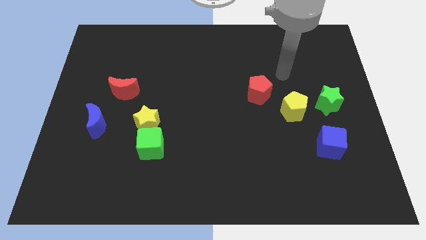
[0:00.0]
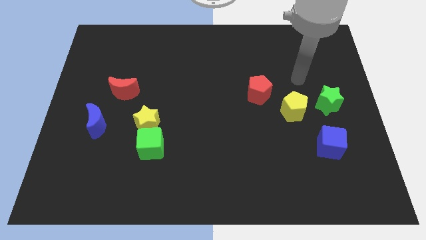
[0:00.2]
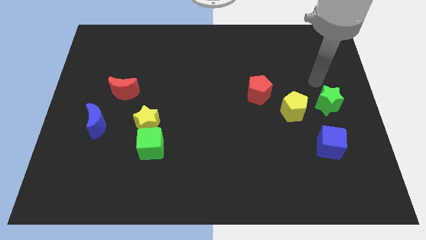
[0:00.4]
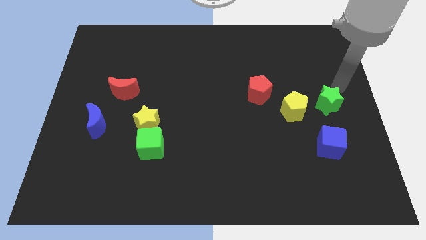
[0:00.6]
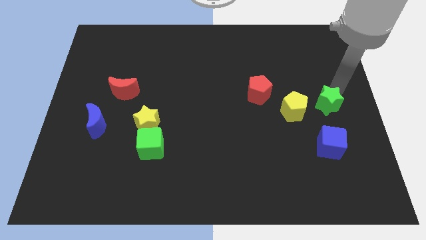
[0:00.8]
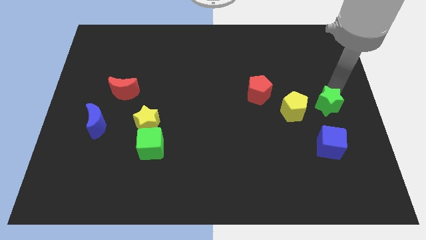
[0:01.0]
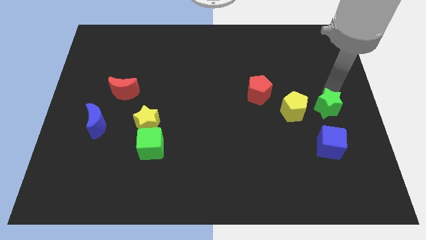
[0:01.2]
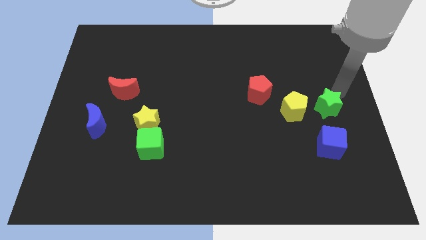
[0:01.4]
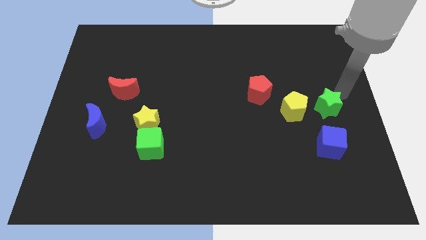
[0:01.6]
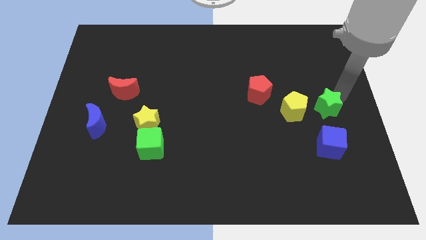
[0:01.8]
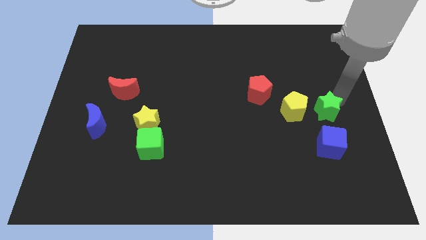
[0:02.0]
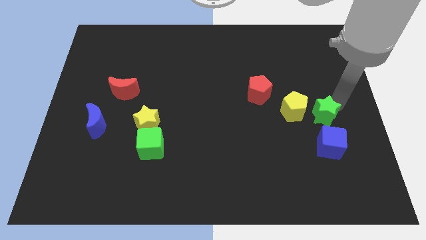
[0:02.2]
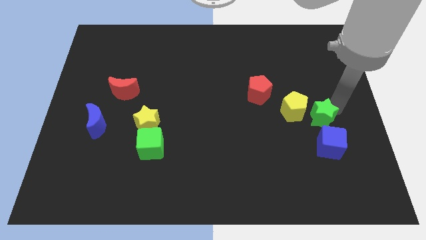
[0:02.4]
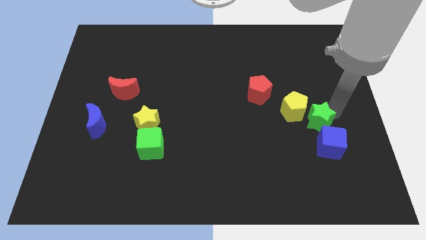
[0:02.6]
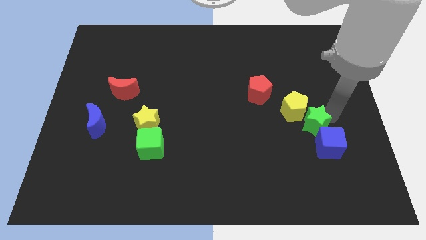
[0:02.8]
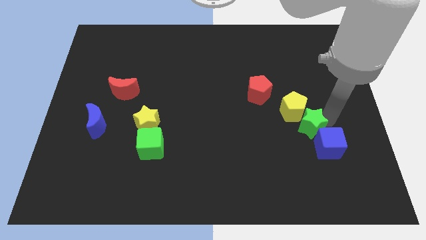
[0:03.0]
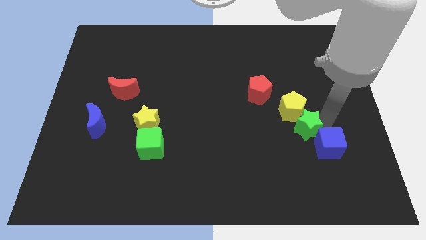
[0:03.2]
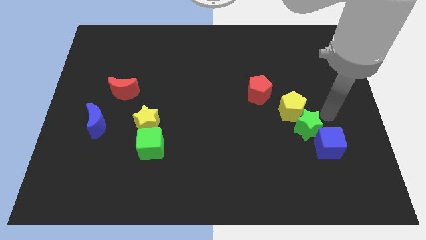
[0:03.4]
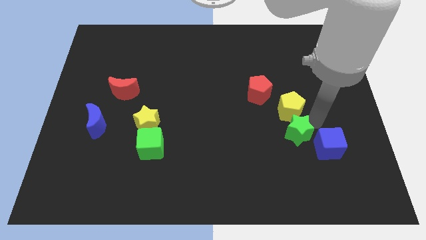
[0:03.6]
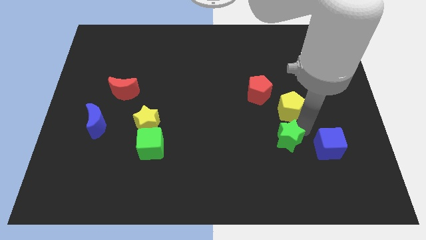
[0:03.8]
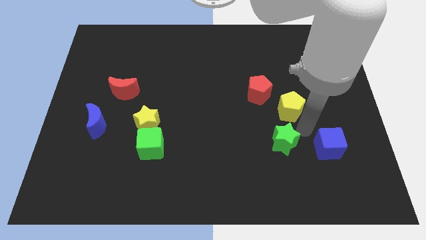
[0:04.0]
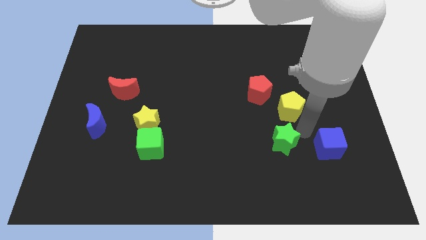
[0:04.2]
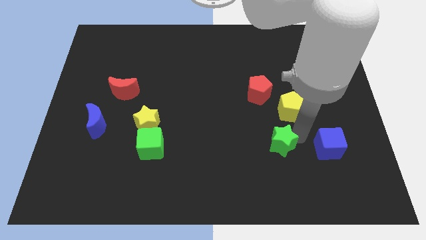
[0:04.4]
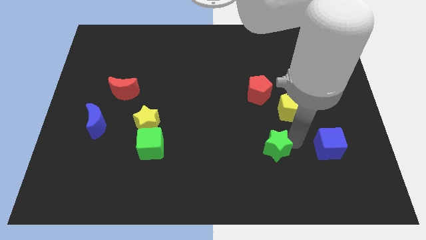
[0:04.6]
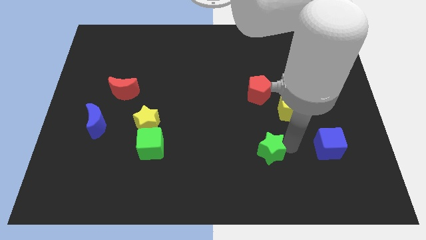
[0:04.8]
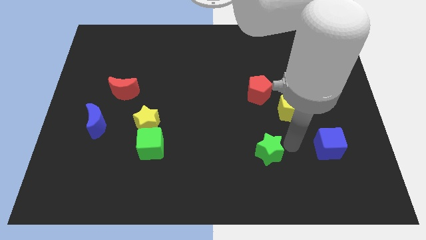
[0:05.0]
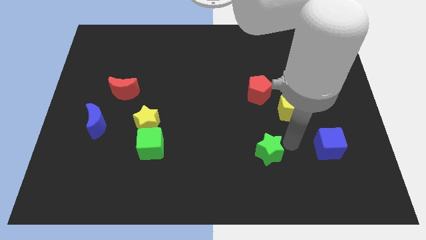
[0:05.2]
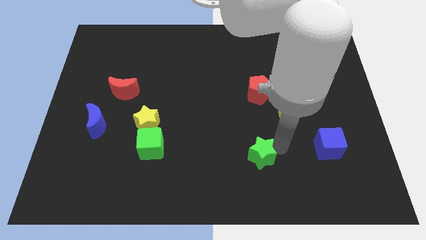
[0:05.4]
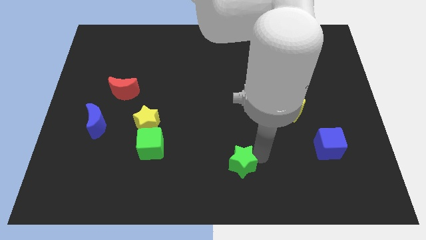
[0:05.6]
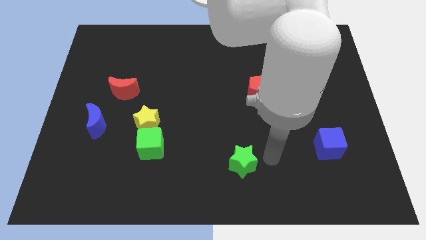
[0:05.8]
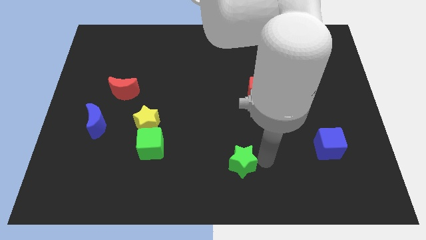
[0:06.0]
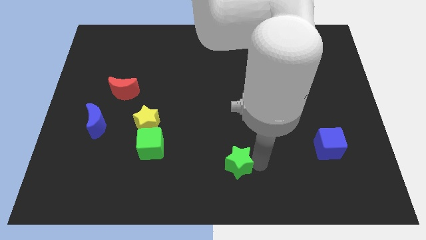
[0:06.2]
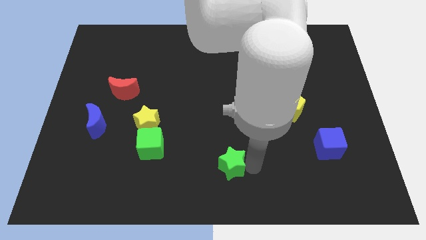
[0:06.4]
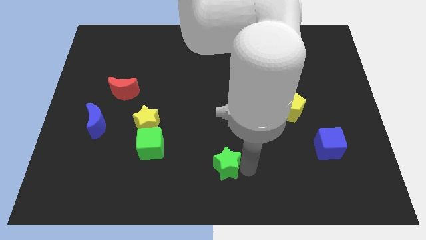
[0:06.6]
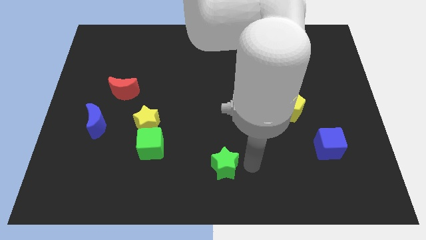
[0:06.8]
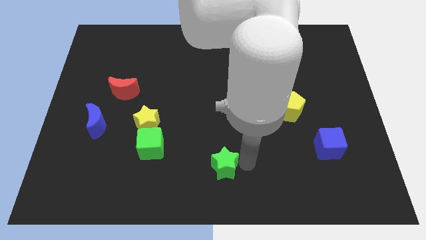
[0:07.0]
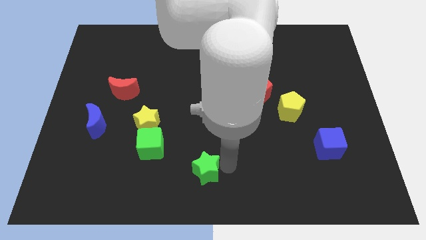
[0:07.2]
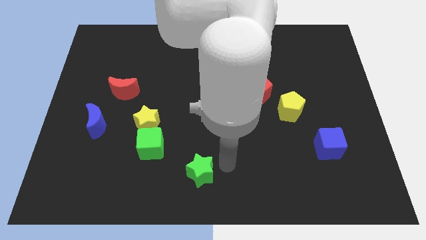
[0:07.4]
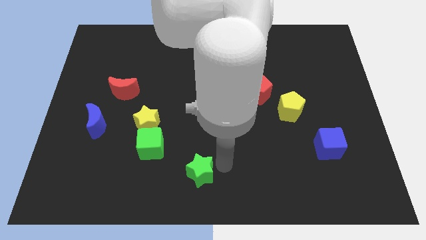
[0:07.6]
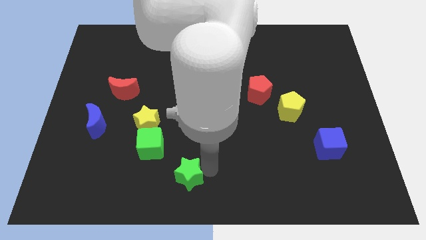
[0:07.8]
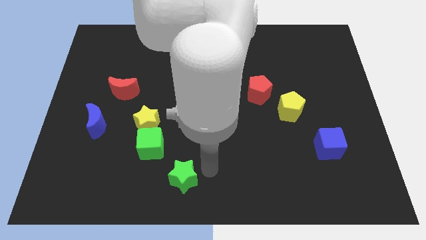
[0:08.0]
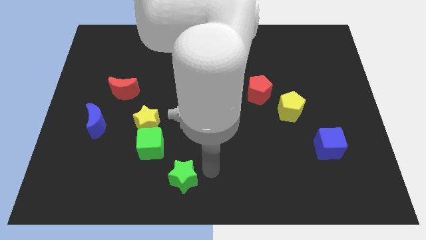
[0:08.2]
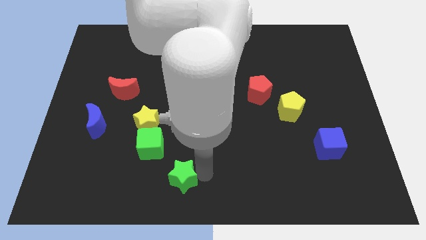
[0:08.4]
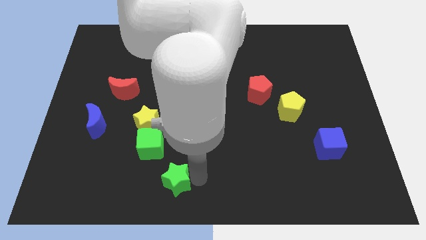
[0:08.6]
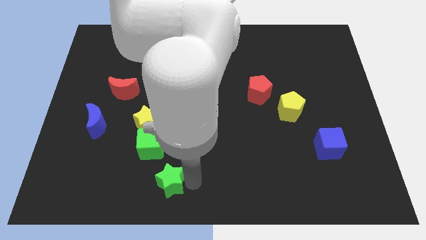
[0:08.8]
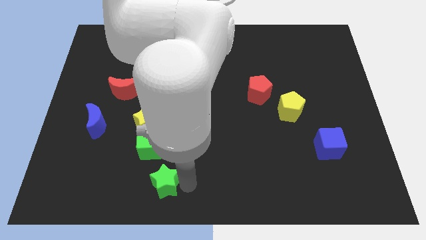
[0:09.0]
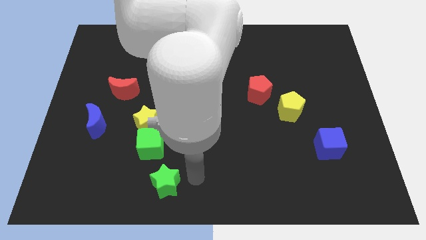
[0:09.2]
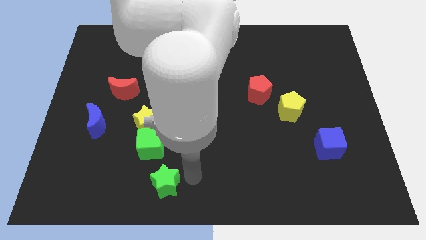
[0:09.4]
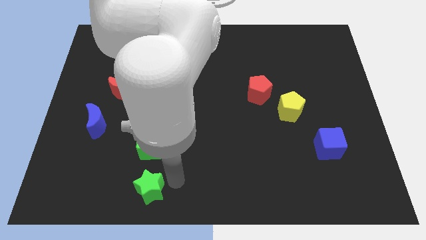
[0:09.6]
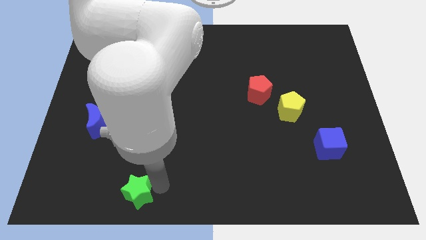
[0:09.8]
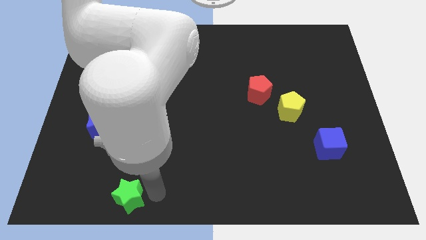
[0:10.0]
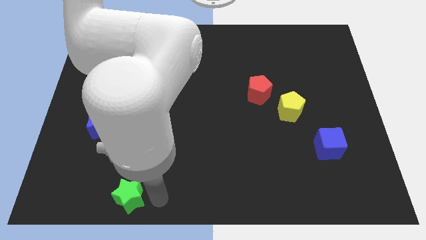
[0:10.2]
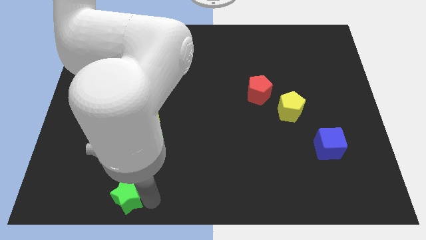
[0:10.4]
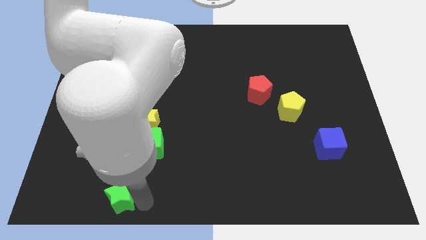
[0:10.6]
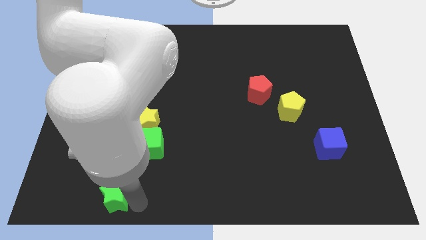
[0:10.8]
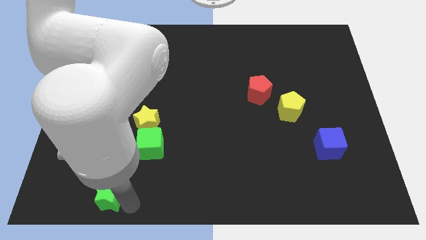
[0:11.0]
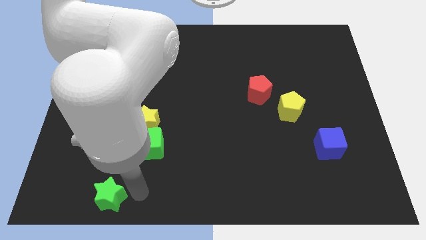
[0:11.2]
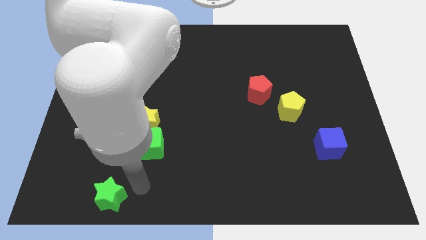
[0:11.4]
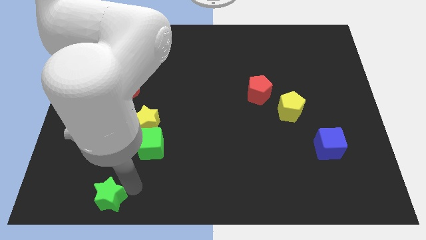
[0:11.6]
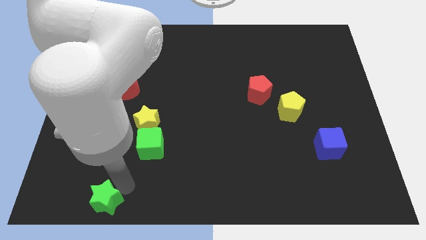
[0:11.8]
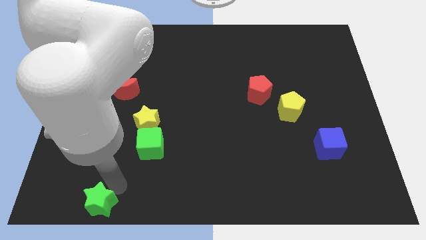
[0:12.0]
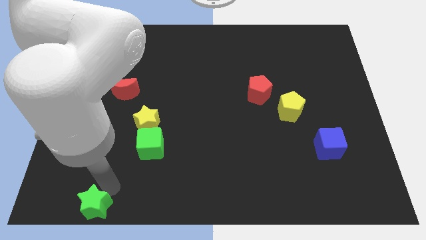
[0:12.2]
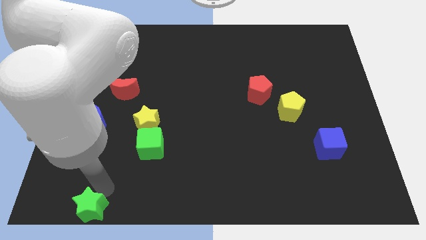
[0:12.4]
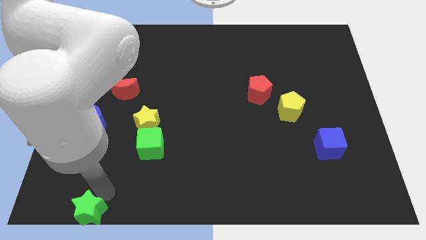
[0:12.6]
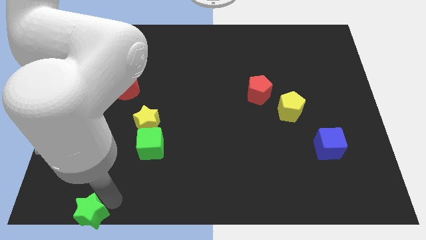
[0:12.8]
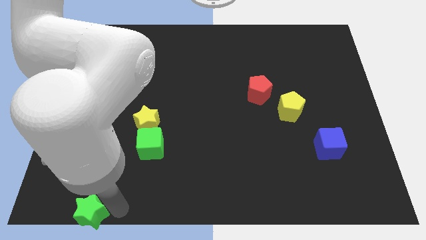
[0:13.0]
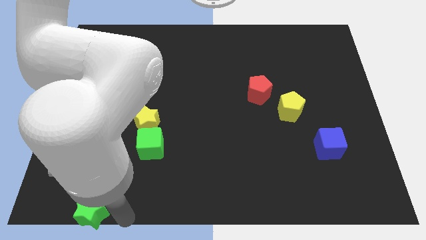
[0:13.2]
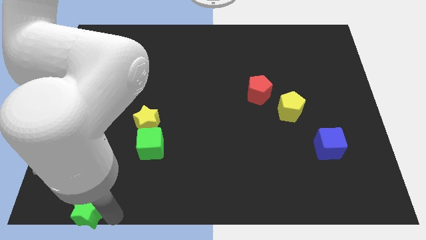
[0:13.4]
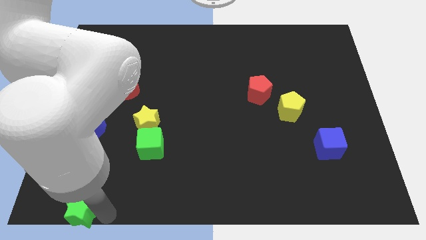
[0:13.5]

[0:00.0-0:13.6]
push the green star to the bottom left

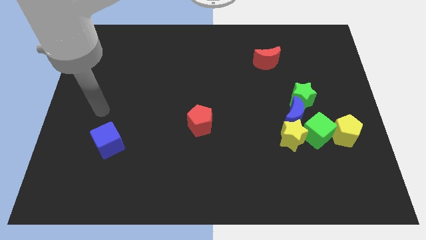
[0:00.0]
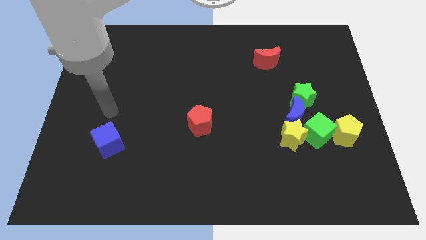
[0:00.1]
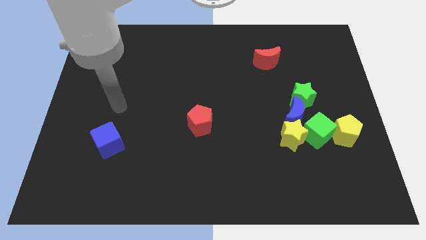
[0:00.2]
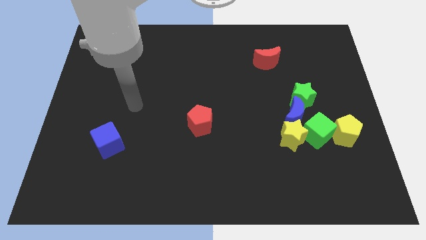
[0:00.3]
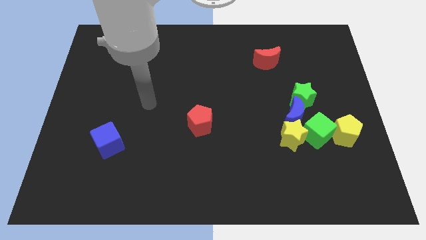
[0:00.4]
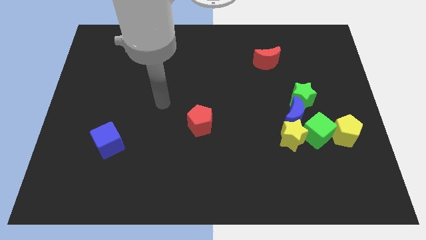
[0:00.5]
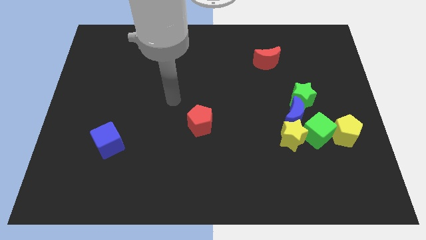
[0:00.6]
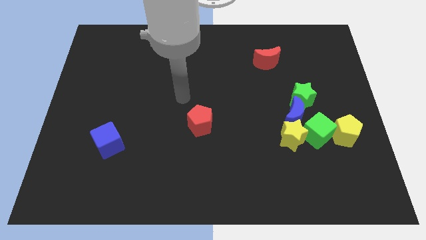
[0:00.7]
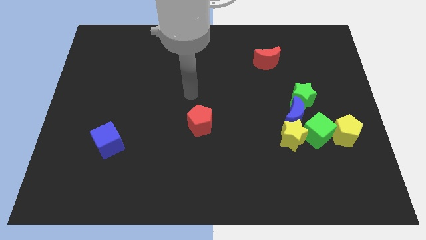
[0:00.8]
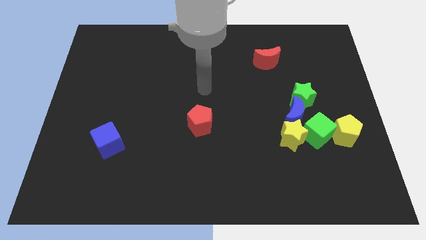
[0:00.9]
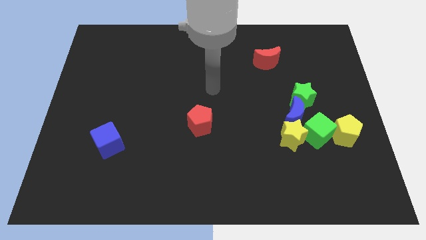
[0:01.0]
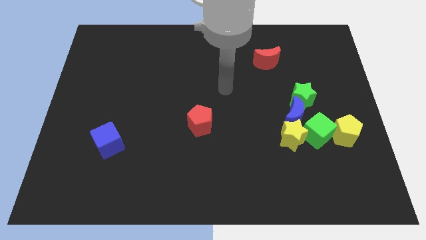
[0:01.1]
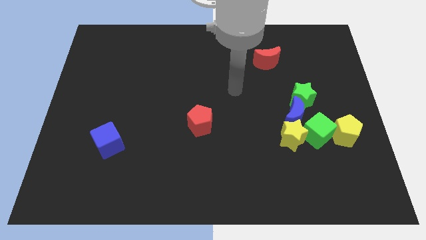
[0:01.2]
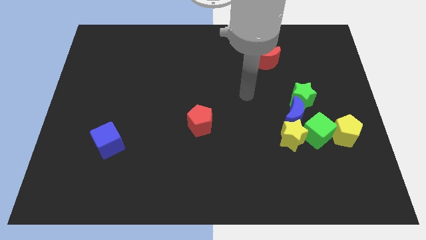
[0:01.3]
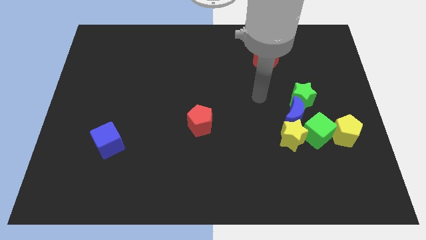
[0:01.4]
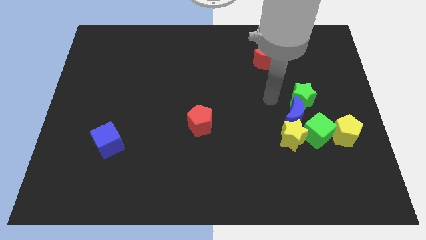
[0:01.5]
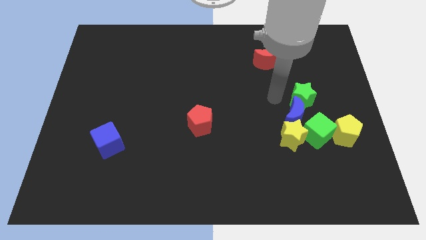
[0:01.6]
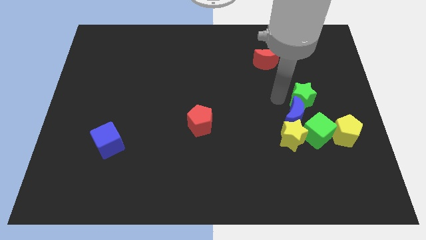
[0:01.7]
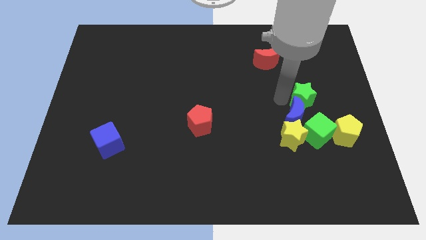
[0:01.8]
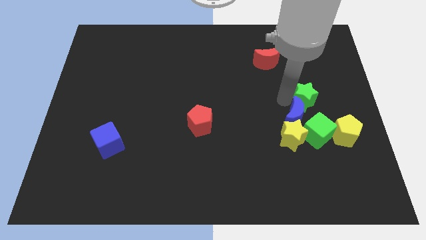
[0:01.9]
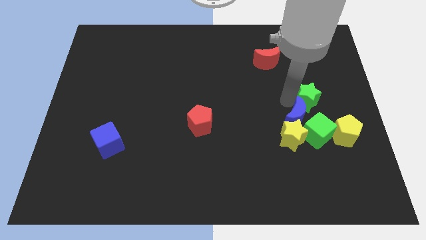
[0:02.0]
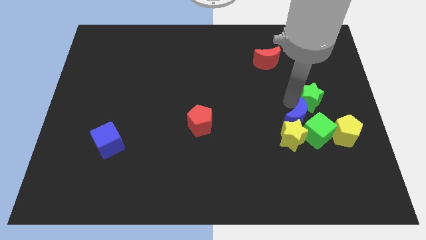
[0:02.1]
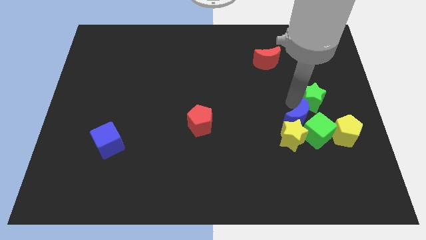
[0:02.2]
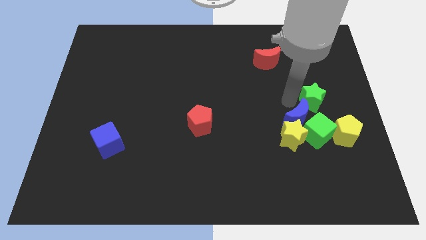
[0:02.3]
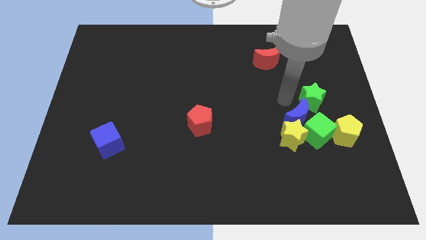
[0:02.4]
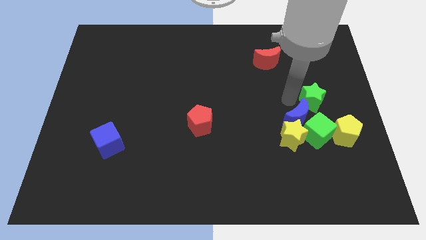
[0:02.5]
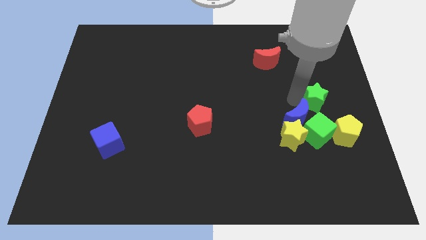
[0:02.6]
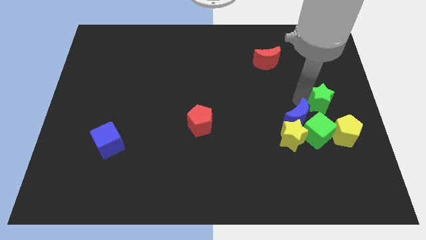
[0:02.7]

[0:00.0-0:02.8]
put the green star to the right side of the board
